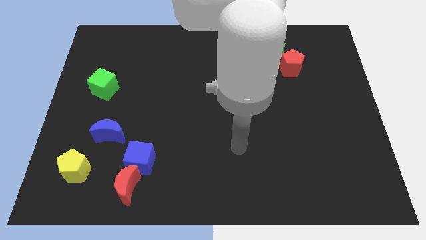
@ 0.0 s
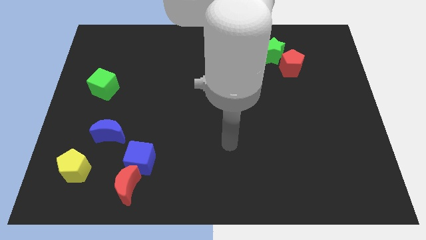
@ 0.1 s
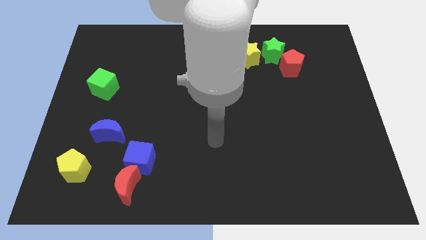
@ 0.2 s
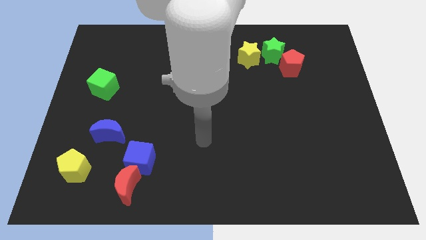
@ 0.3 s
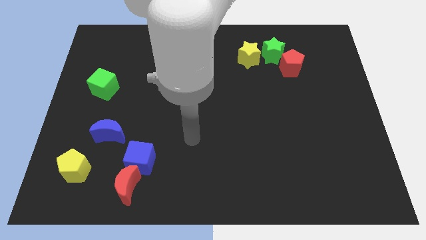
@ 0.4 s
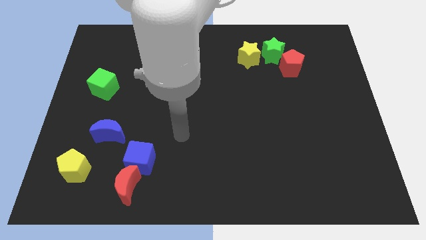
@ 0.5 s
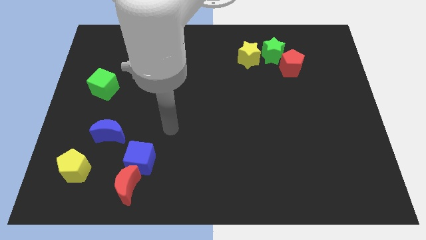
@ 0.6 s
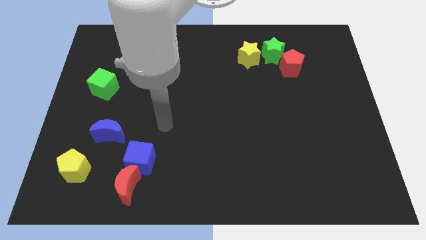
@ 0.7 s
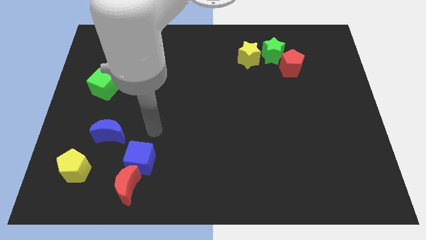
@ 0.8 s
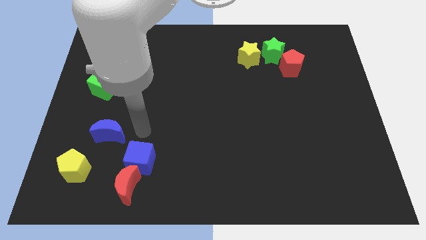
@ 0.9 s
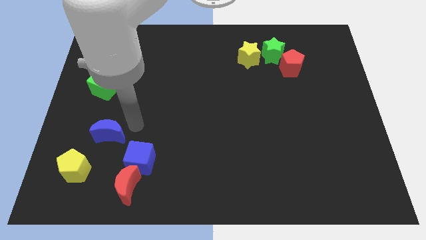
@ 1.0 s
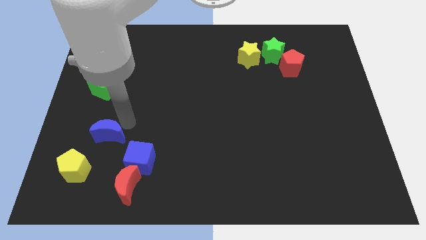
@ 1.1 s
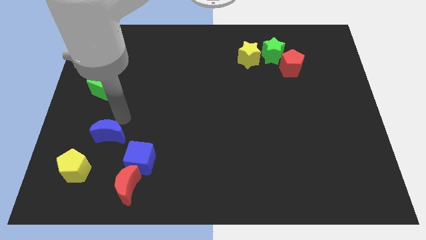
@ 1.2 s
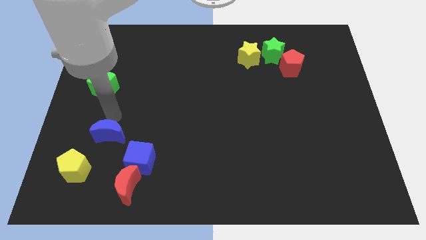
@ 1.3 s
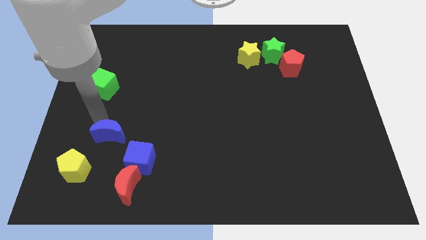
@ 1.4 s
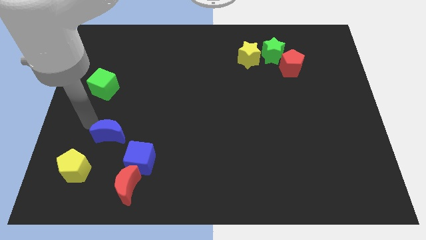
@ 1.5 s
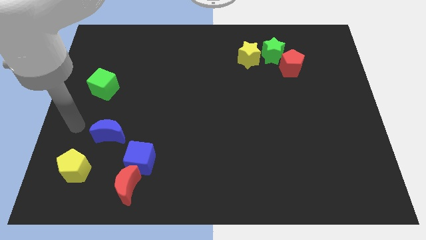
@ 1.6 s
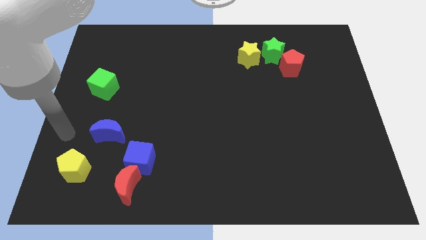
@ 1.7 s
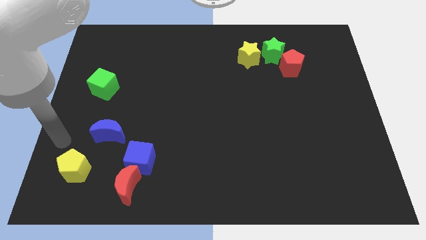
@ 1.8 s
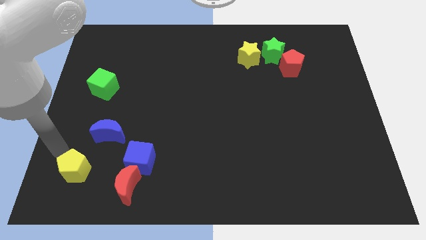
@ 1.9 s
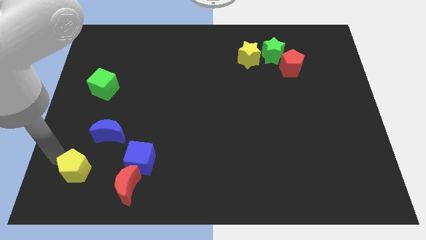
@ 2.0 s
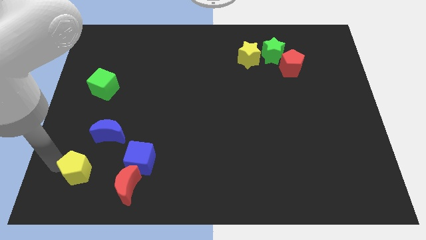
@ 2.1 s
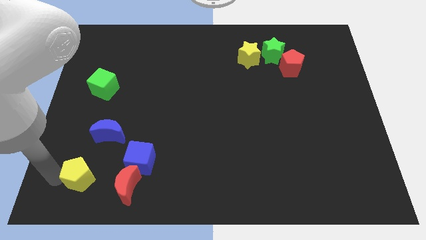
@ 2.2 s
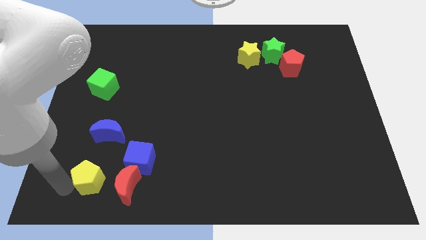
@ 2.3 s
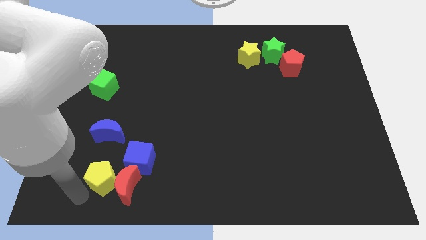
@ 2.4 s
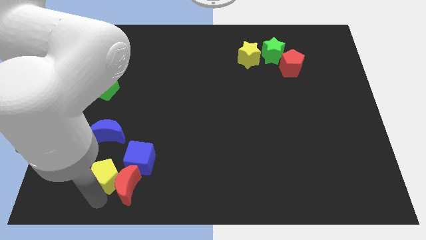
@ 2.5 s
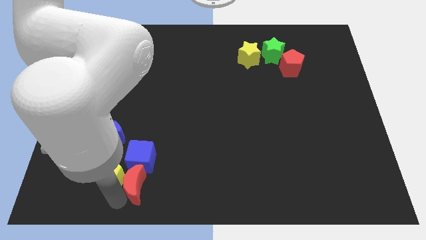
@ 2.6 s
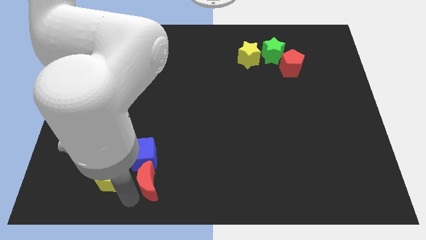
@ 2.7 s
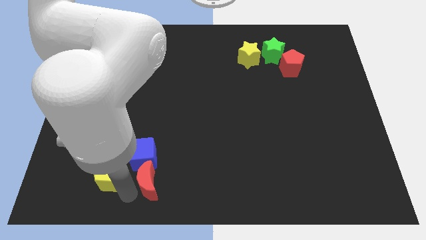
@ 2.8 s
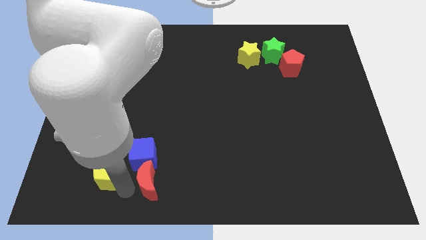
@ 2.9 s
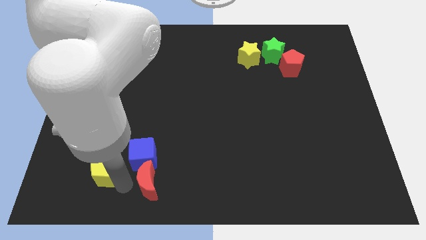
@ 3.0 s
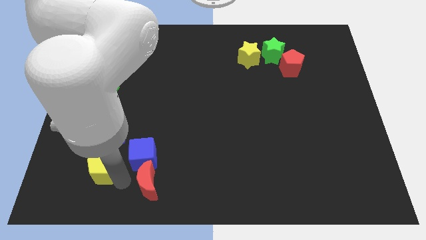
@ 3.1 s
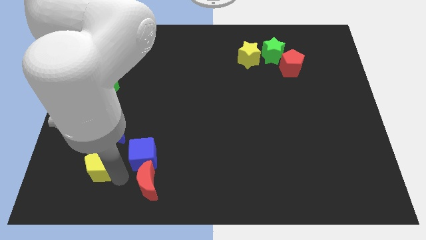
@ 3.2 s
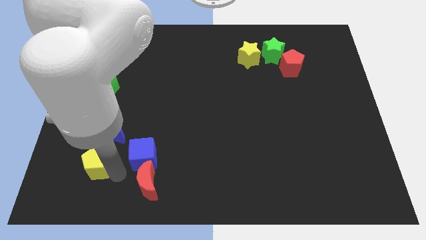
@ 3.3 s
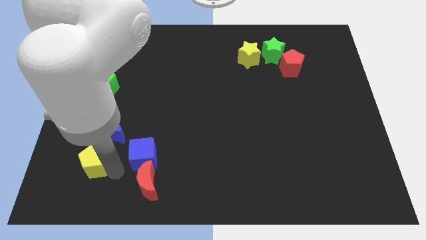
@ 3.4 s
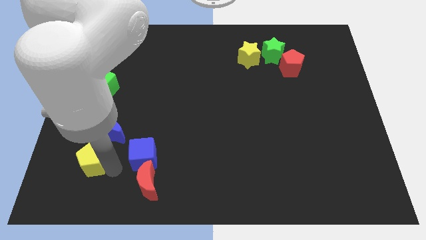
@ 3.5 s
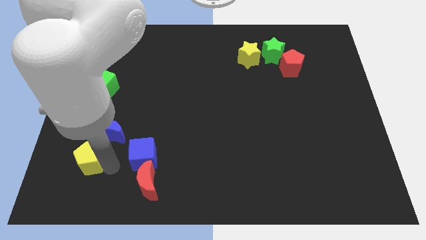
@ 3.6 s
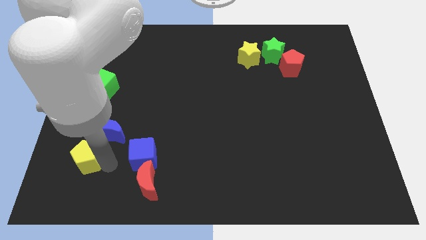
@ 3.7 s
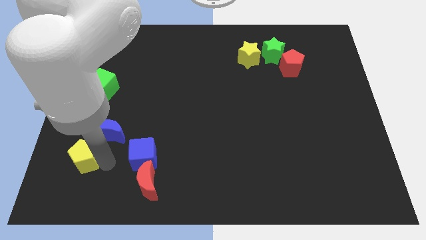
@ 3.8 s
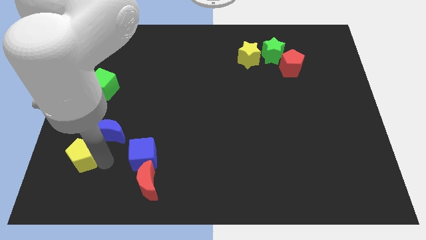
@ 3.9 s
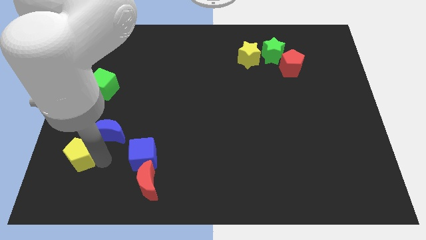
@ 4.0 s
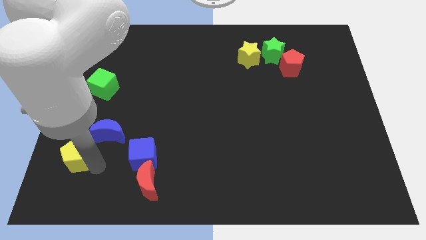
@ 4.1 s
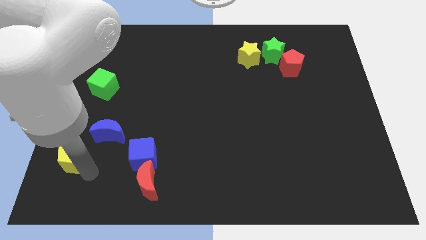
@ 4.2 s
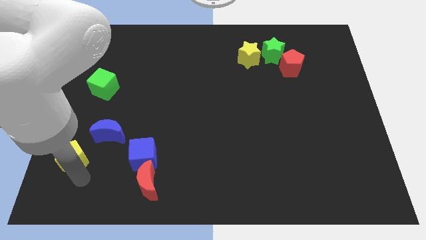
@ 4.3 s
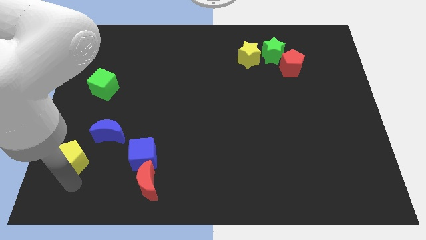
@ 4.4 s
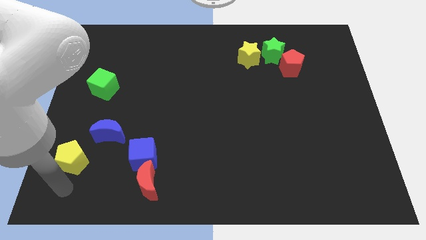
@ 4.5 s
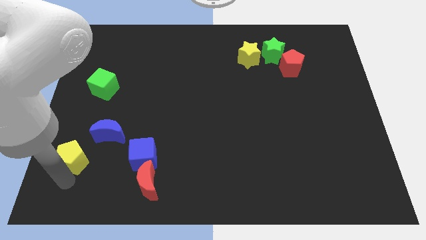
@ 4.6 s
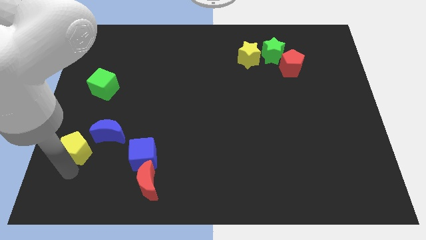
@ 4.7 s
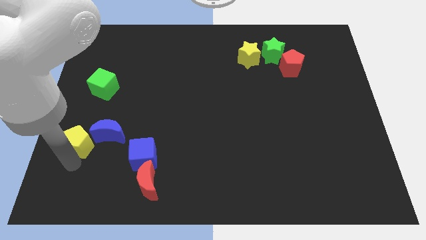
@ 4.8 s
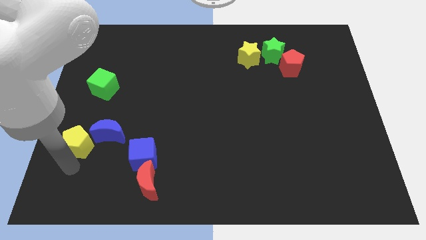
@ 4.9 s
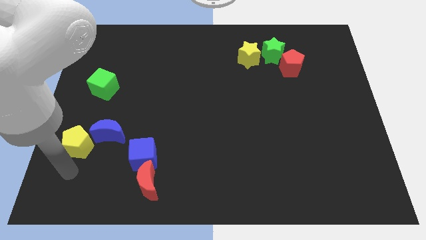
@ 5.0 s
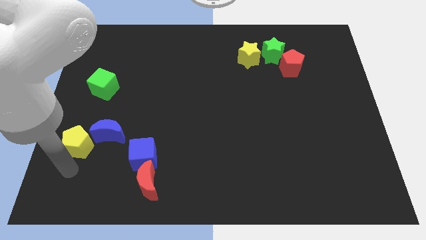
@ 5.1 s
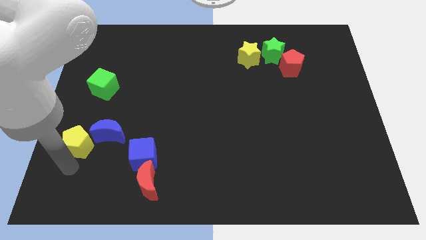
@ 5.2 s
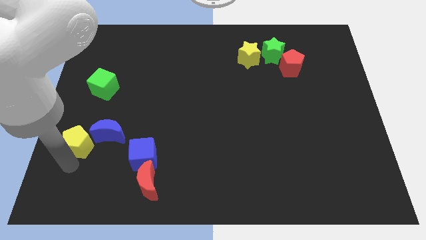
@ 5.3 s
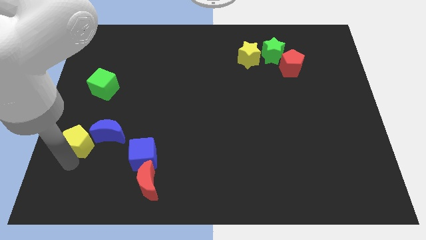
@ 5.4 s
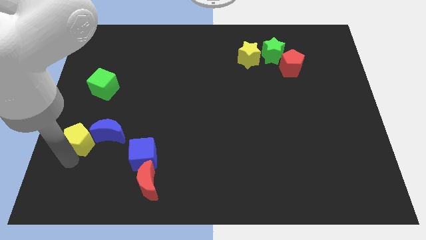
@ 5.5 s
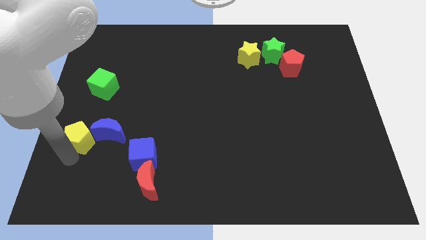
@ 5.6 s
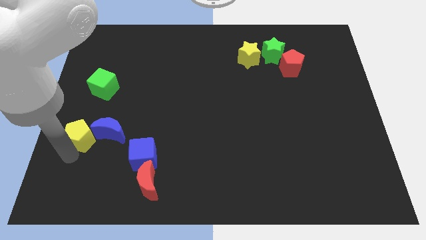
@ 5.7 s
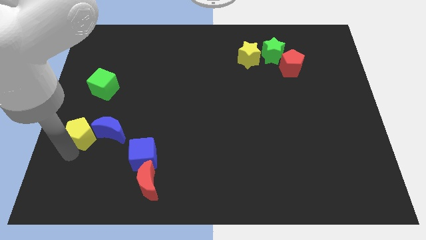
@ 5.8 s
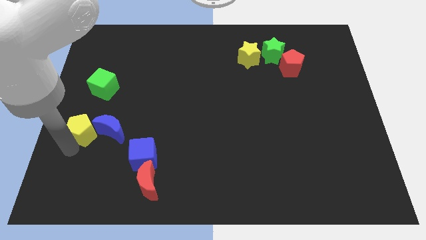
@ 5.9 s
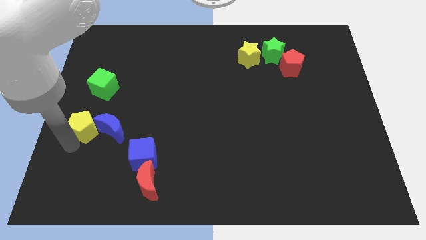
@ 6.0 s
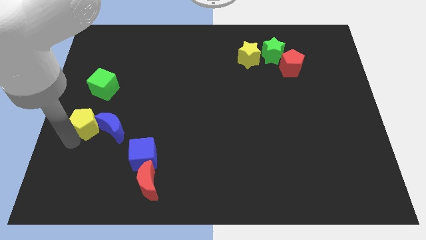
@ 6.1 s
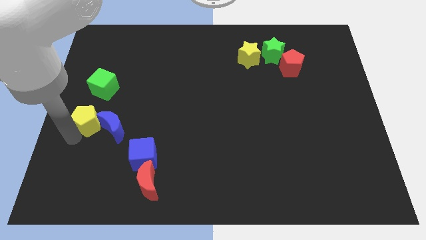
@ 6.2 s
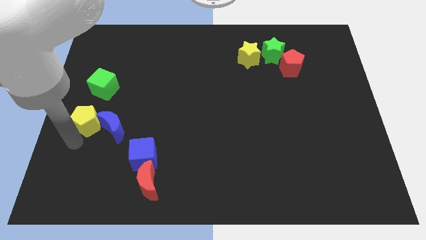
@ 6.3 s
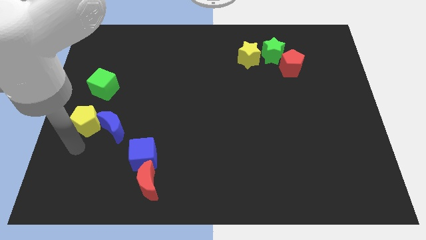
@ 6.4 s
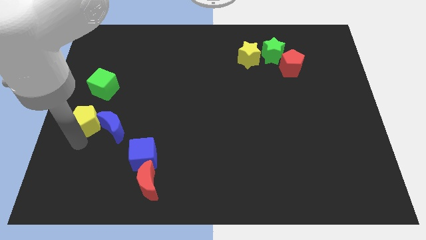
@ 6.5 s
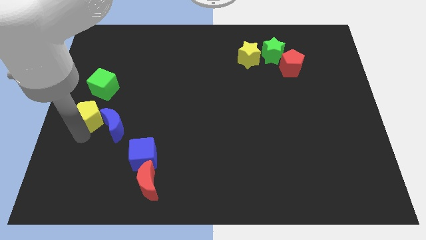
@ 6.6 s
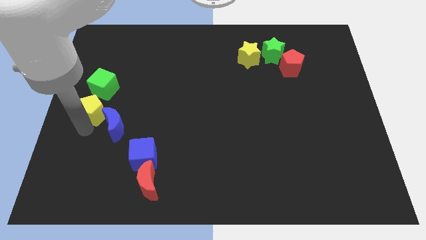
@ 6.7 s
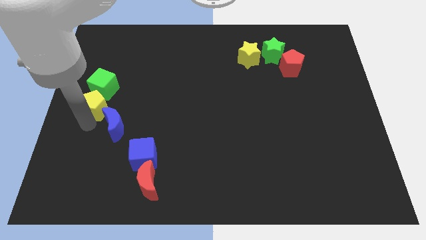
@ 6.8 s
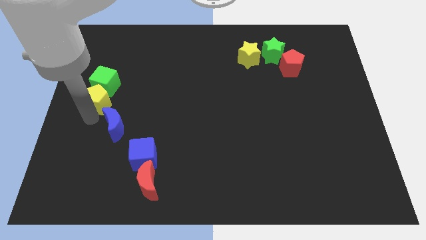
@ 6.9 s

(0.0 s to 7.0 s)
slide the yellow pentagon close to the green cube
